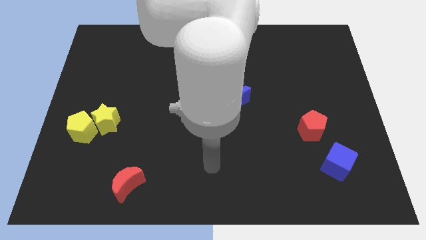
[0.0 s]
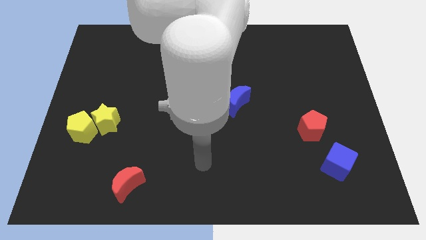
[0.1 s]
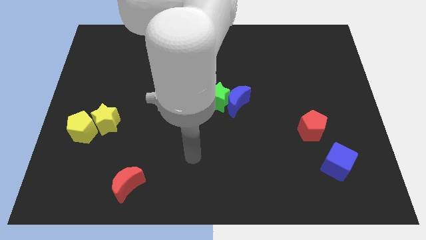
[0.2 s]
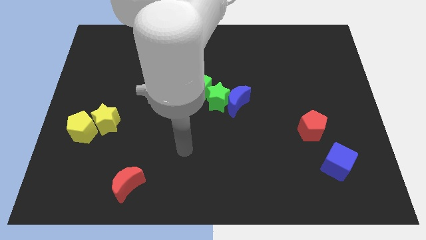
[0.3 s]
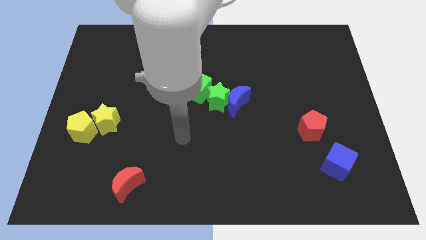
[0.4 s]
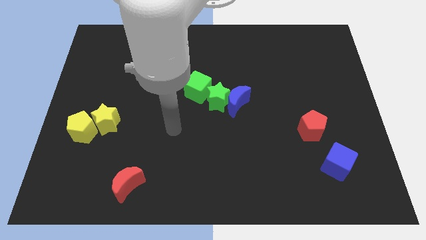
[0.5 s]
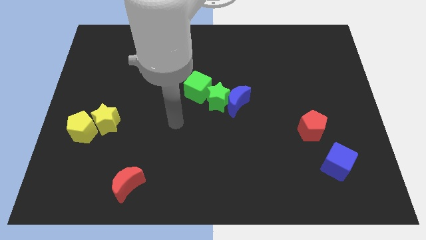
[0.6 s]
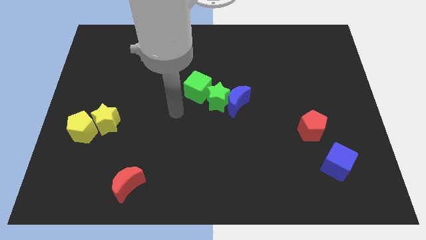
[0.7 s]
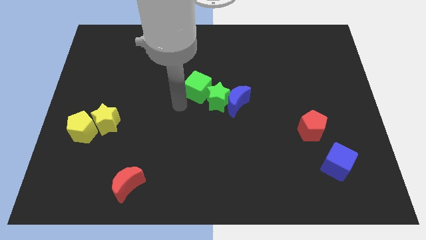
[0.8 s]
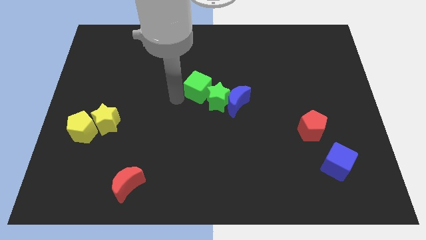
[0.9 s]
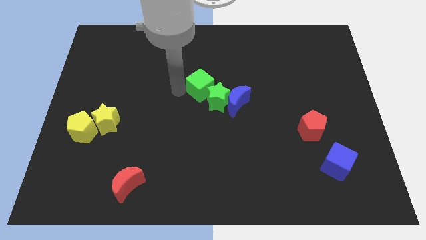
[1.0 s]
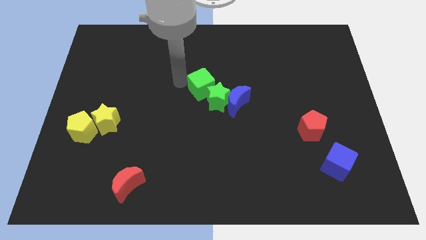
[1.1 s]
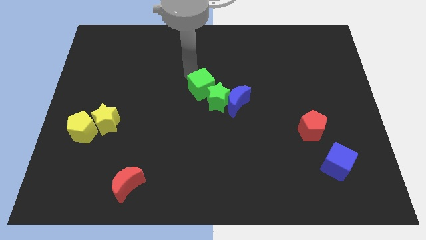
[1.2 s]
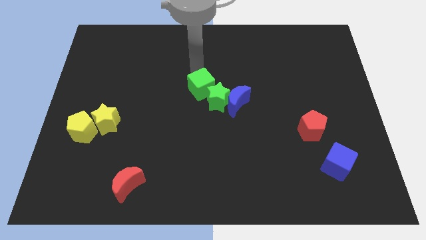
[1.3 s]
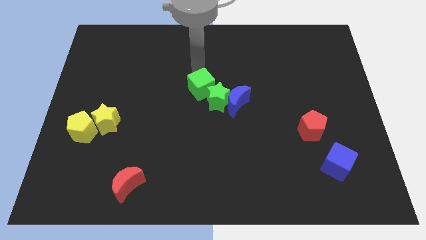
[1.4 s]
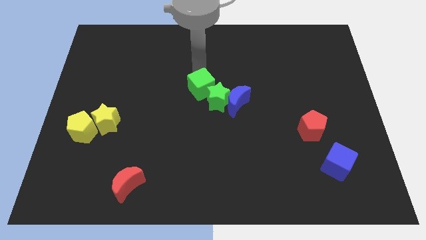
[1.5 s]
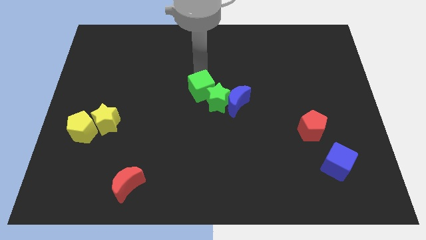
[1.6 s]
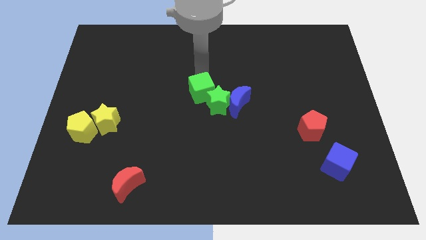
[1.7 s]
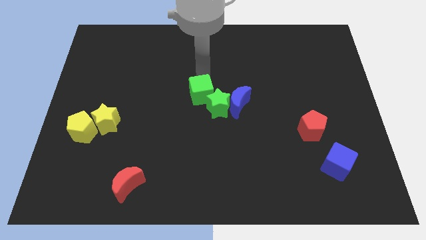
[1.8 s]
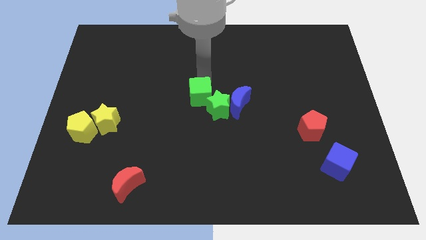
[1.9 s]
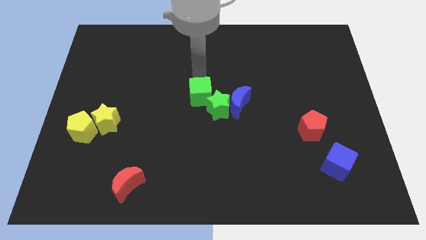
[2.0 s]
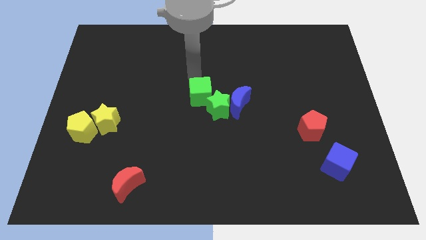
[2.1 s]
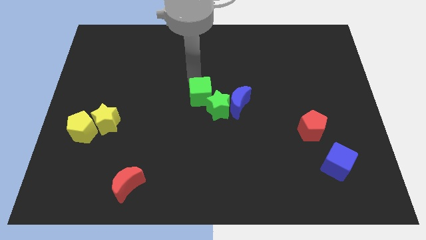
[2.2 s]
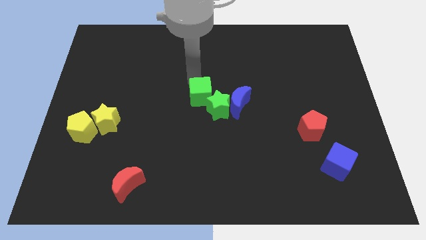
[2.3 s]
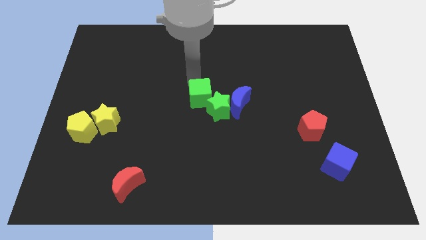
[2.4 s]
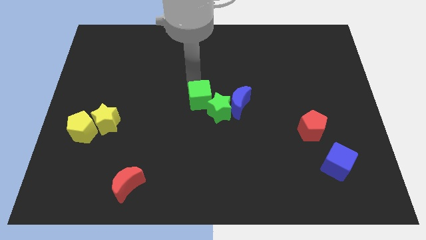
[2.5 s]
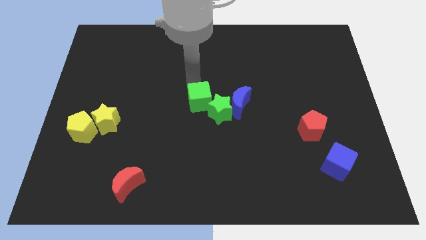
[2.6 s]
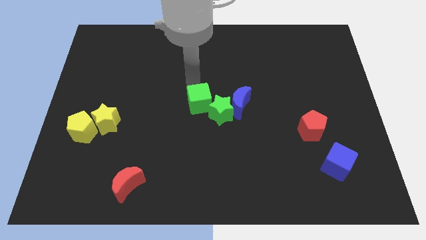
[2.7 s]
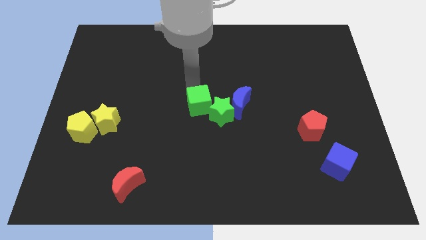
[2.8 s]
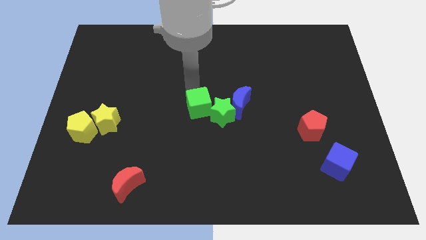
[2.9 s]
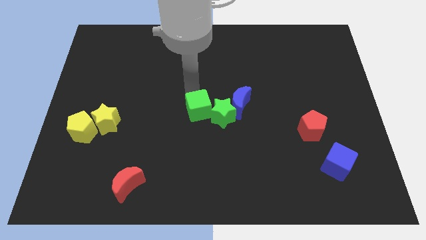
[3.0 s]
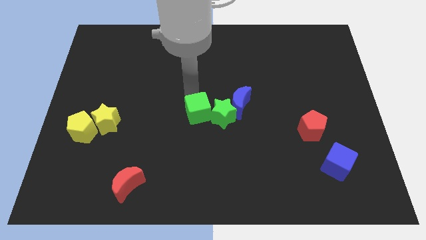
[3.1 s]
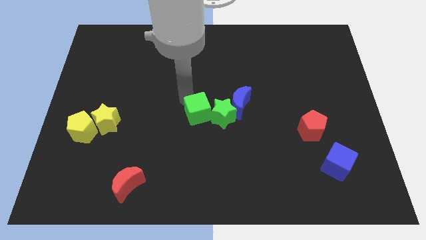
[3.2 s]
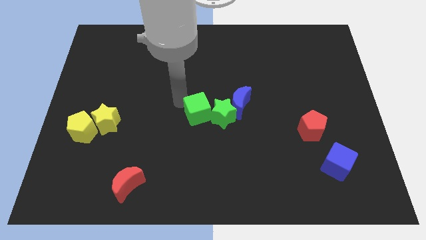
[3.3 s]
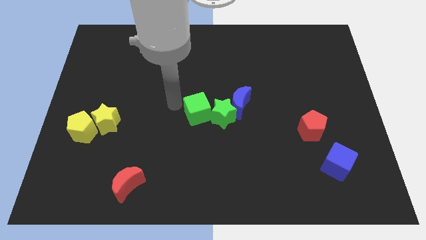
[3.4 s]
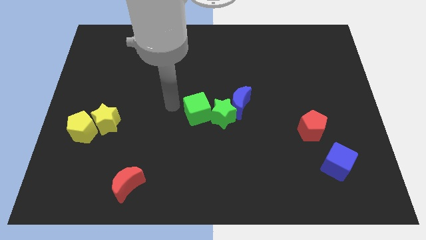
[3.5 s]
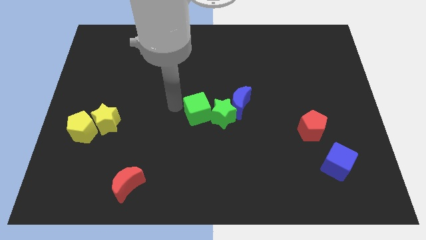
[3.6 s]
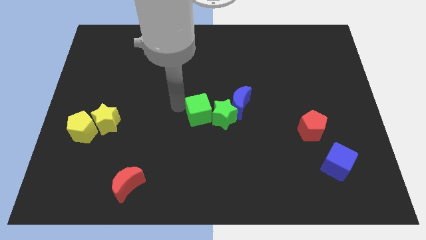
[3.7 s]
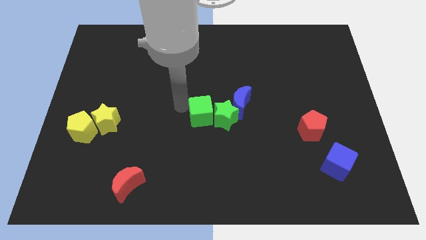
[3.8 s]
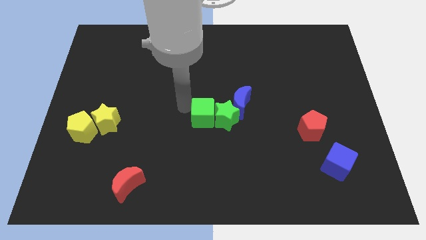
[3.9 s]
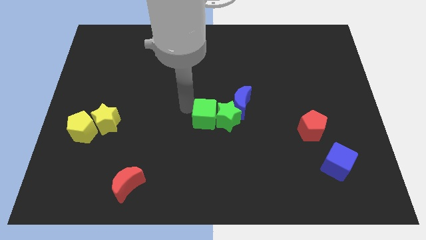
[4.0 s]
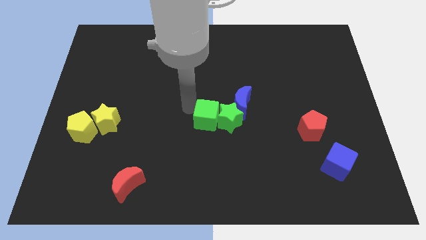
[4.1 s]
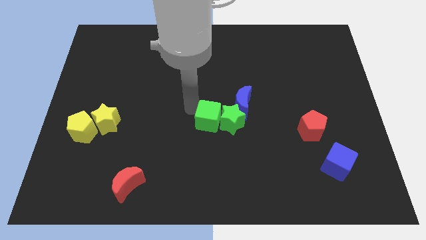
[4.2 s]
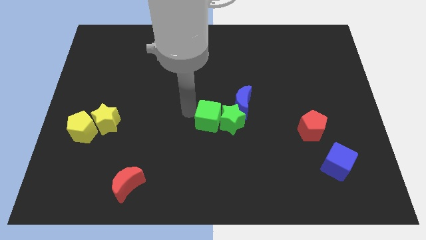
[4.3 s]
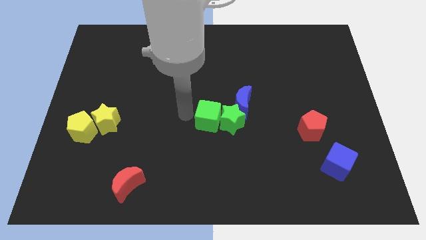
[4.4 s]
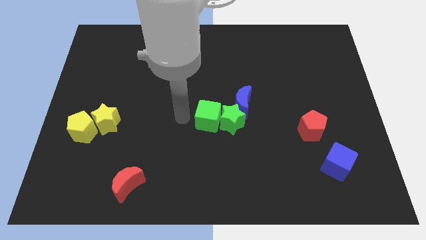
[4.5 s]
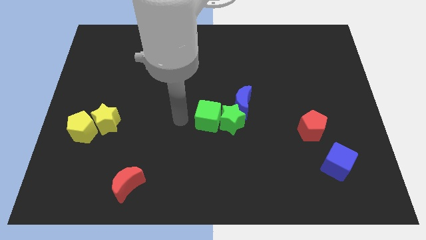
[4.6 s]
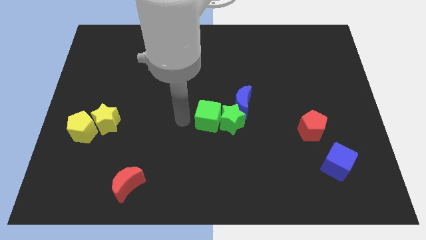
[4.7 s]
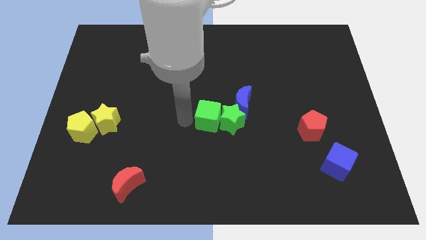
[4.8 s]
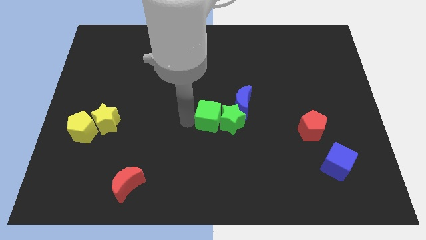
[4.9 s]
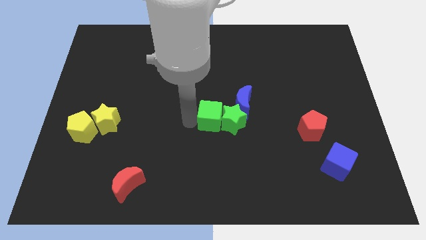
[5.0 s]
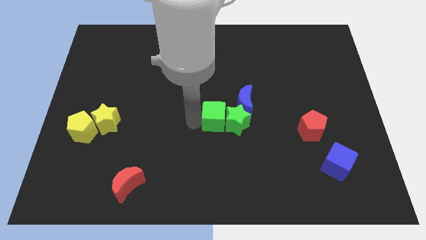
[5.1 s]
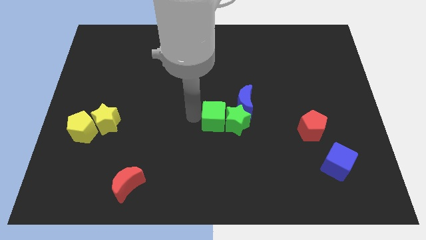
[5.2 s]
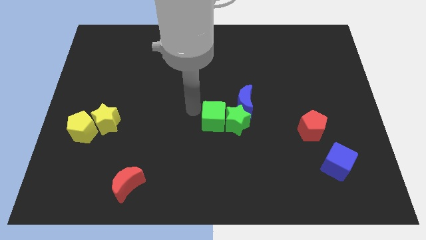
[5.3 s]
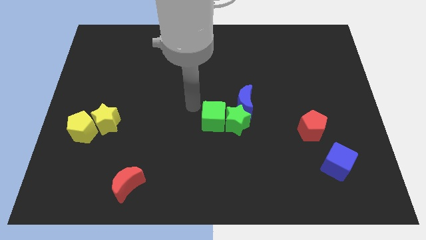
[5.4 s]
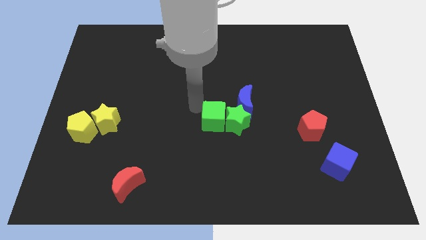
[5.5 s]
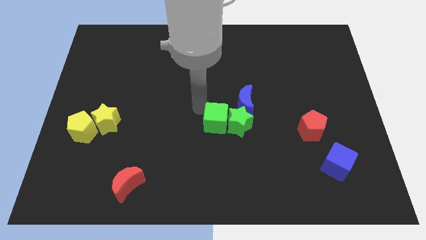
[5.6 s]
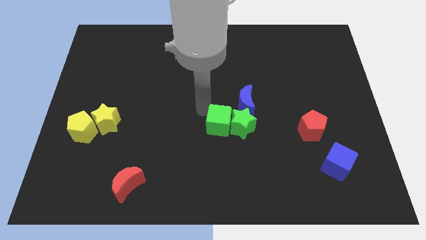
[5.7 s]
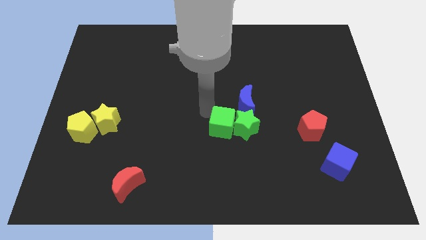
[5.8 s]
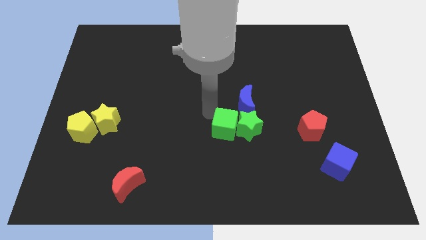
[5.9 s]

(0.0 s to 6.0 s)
put the green cube to the bottom side of the blue moon

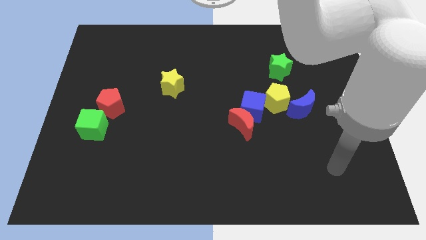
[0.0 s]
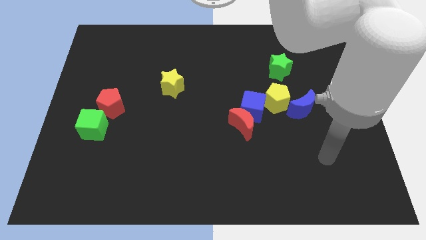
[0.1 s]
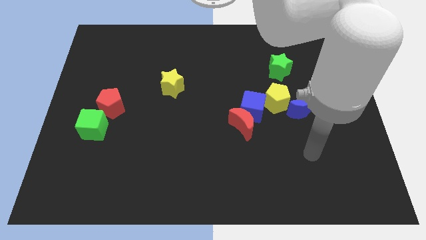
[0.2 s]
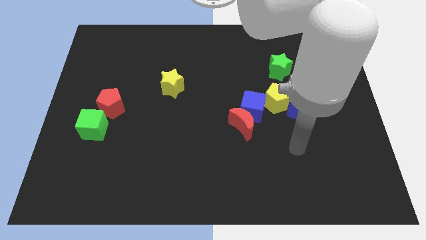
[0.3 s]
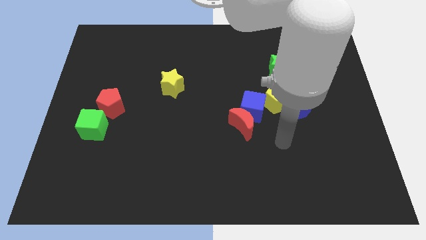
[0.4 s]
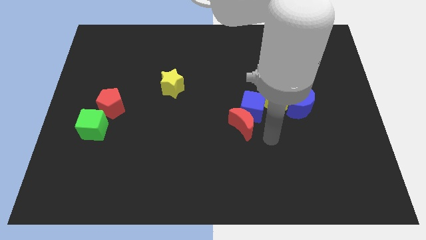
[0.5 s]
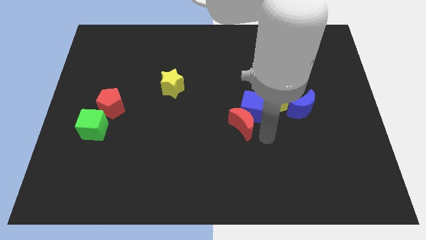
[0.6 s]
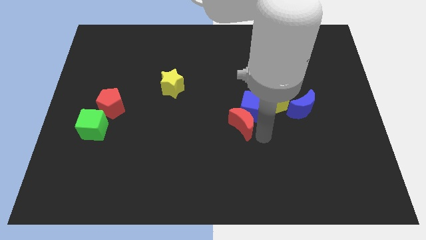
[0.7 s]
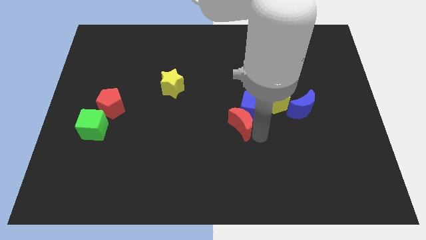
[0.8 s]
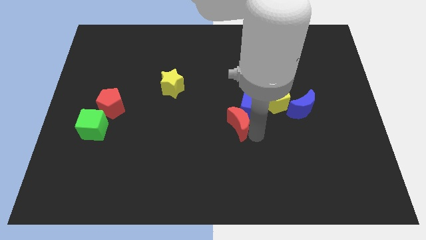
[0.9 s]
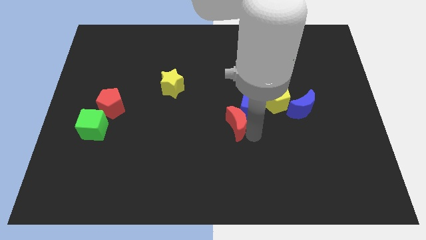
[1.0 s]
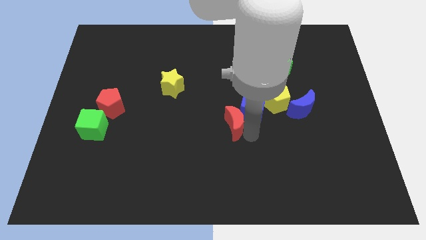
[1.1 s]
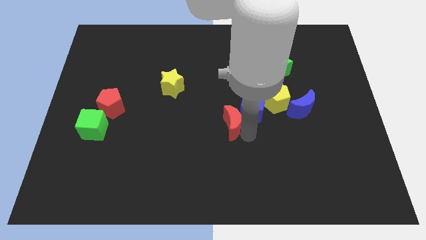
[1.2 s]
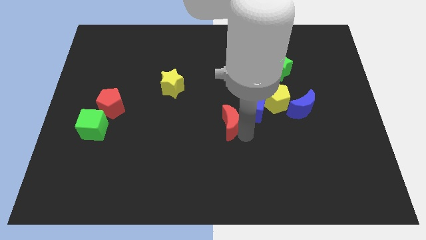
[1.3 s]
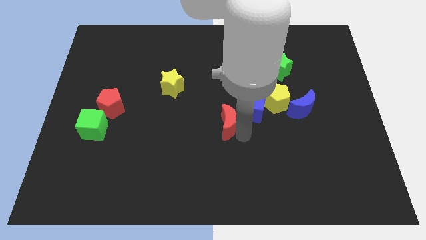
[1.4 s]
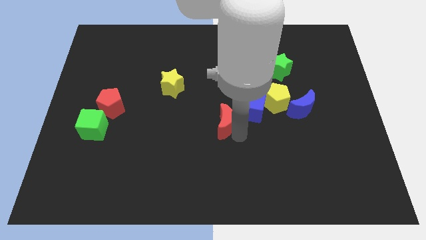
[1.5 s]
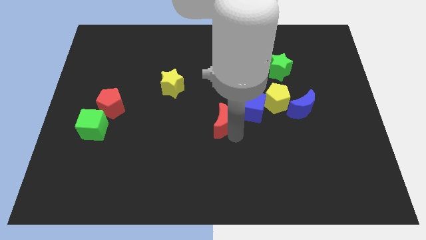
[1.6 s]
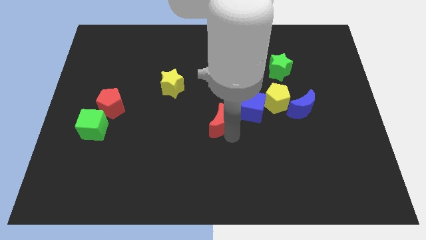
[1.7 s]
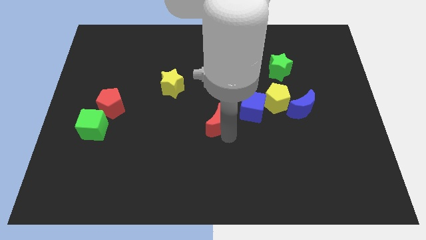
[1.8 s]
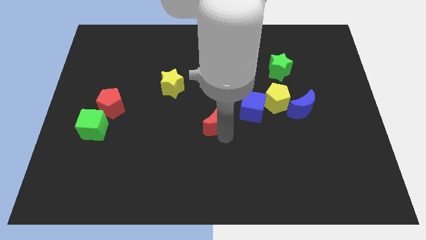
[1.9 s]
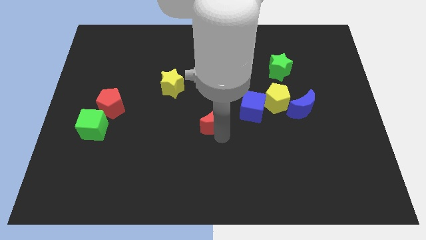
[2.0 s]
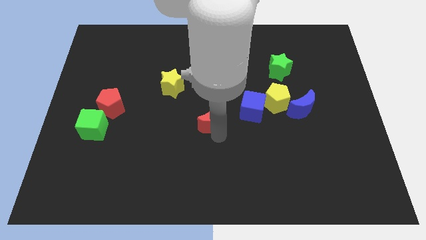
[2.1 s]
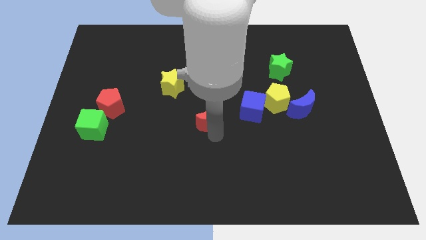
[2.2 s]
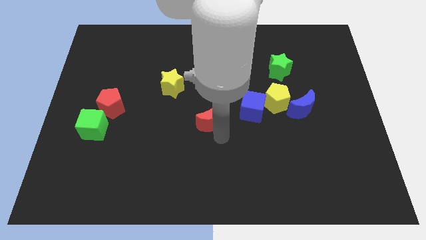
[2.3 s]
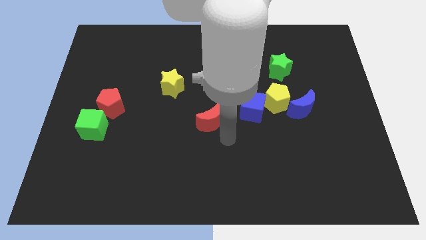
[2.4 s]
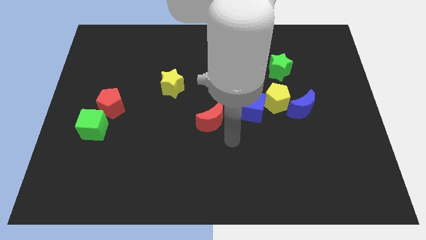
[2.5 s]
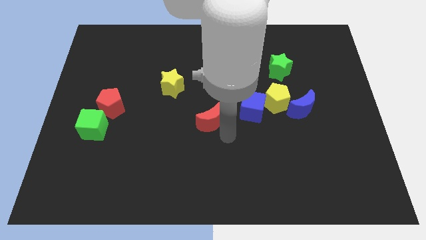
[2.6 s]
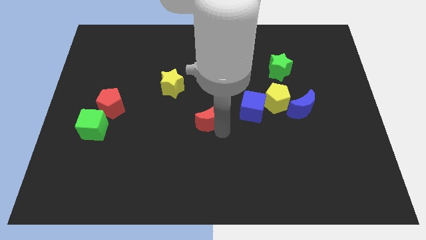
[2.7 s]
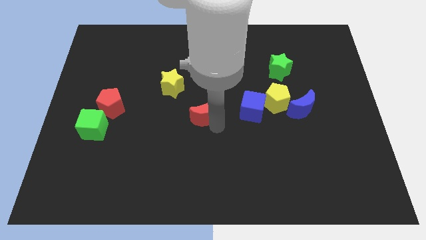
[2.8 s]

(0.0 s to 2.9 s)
push the red moon diagonally down and to the right of the yellow star
